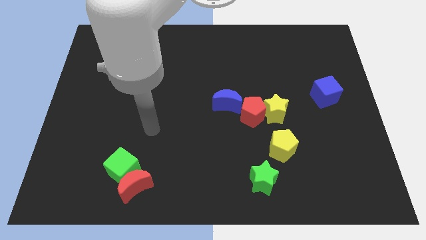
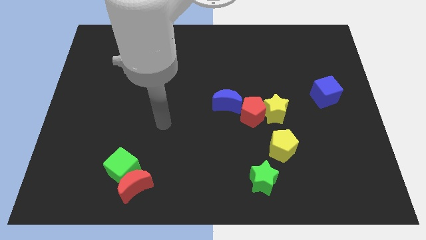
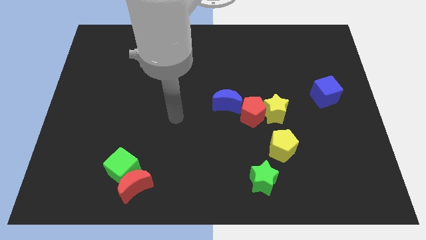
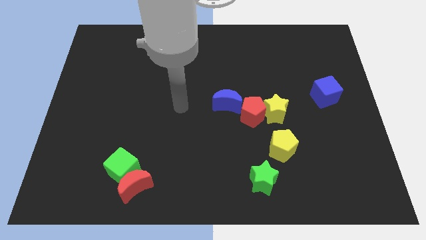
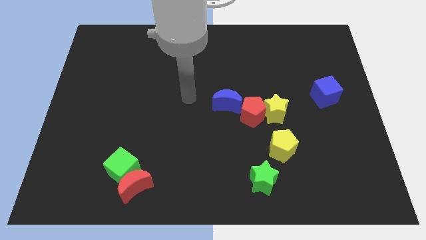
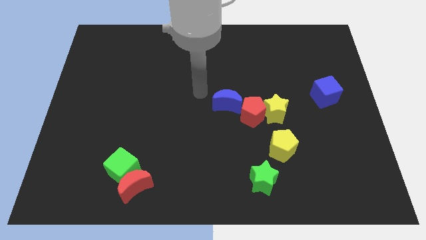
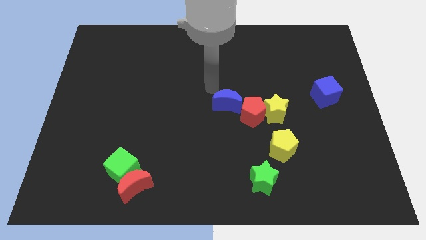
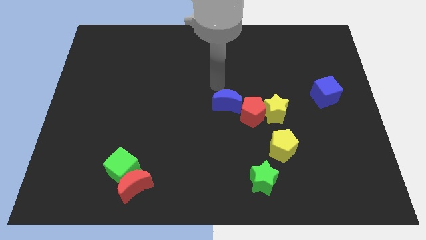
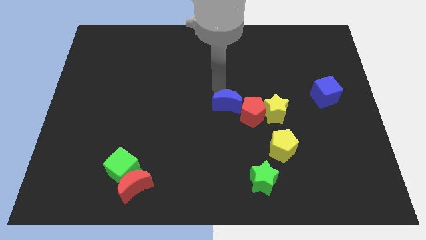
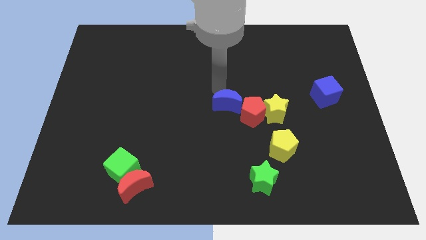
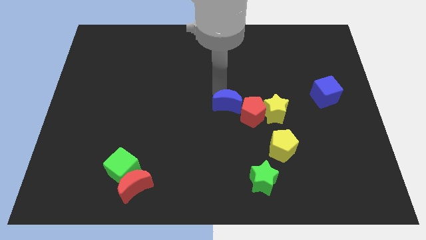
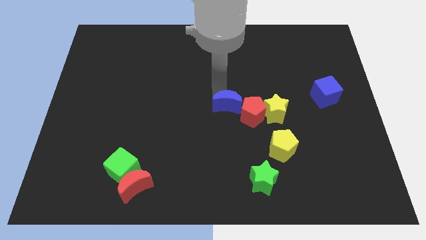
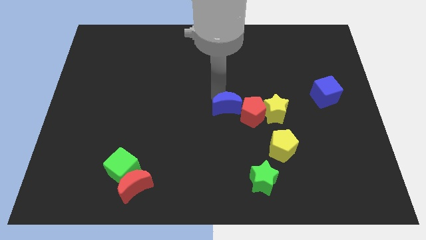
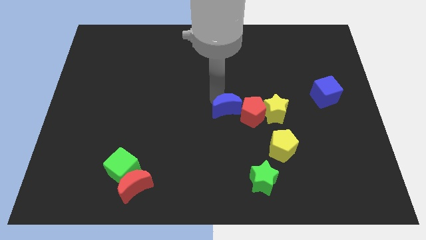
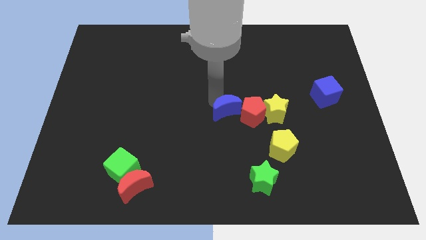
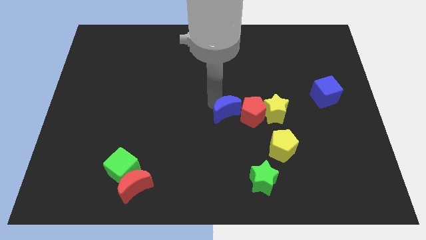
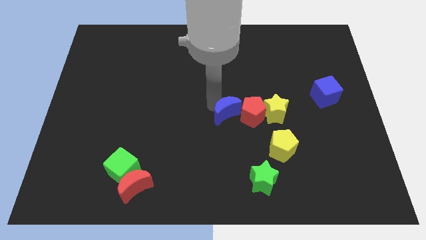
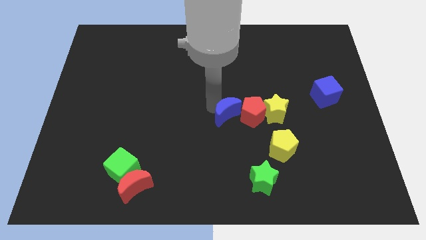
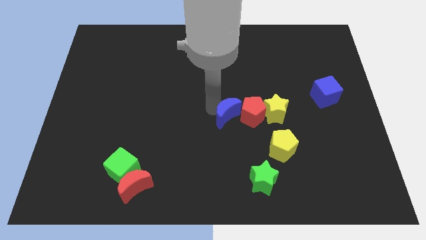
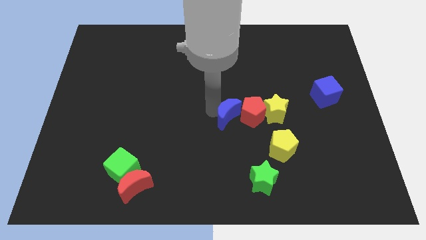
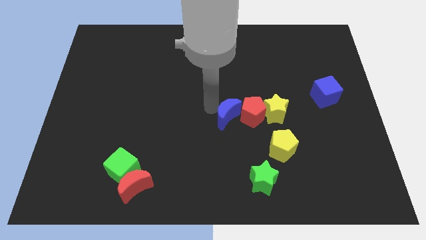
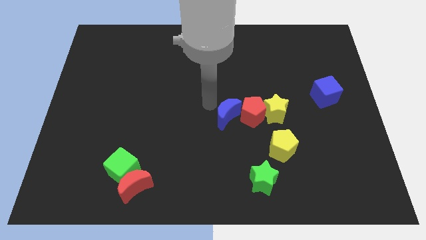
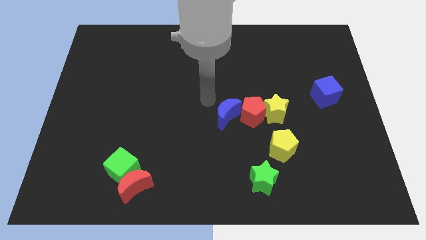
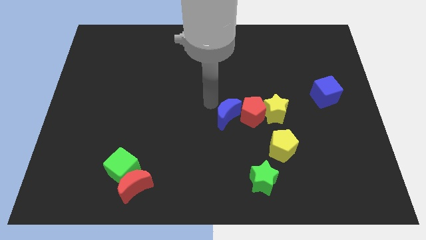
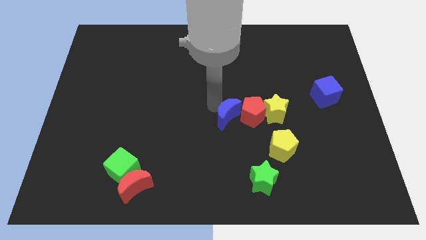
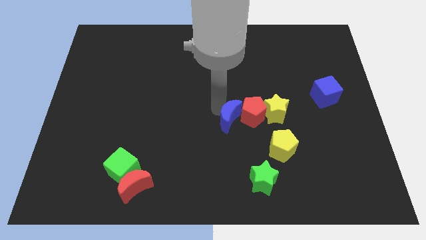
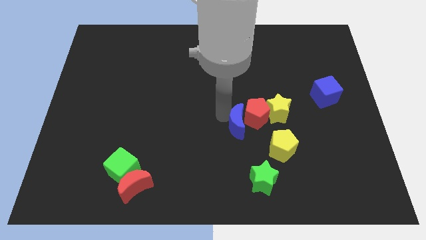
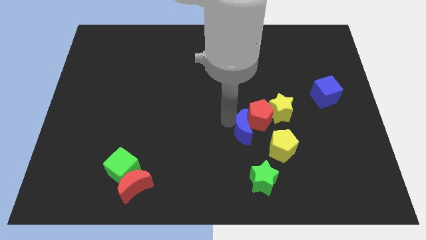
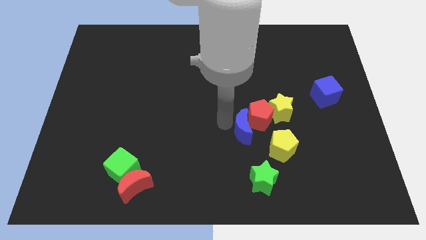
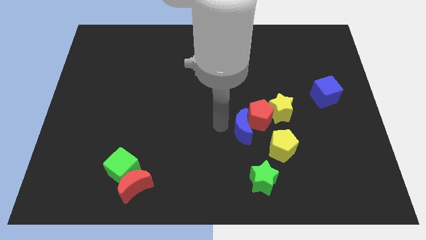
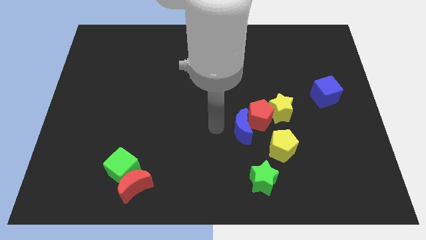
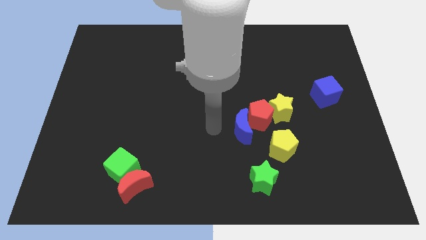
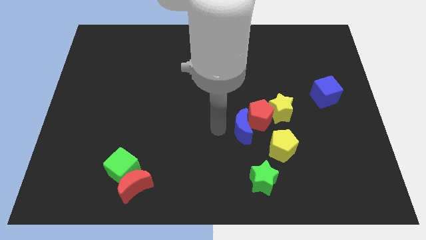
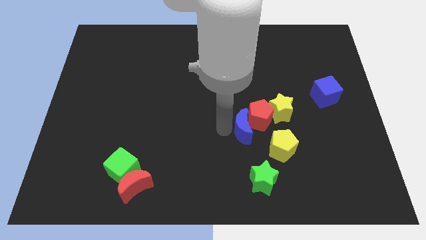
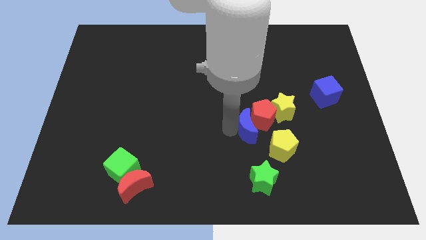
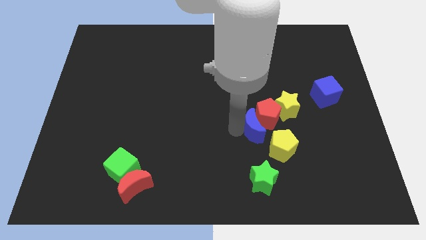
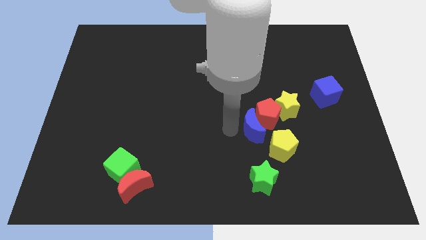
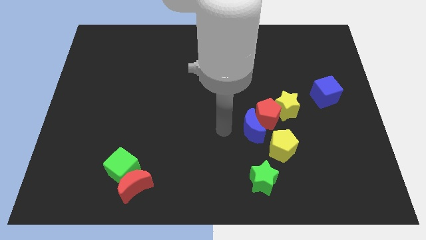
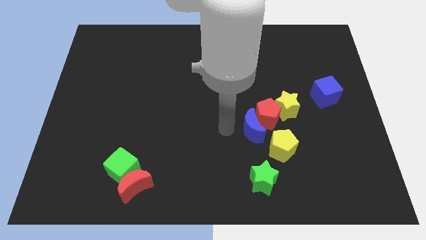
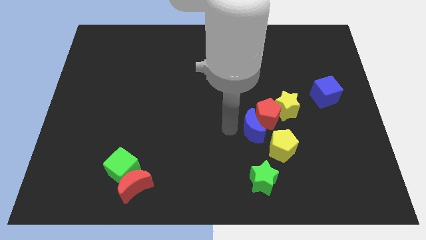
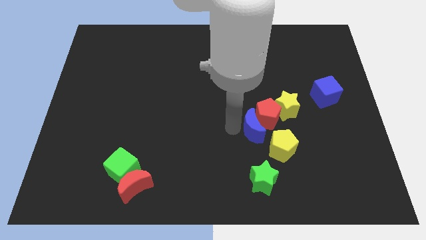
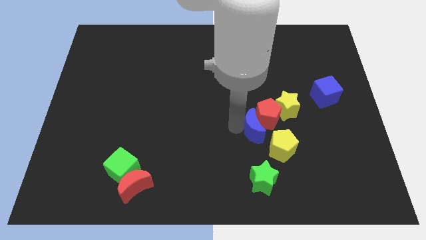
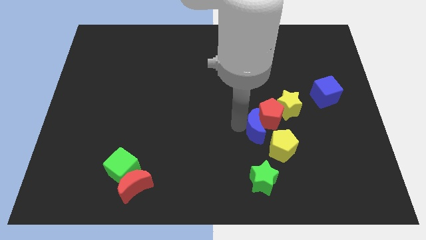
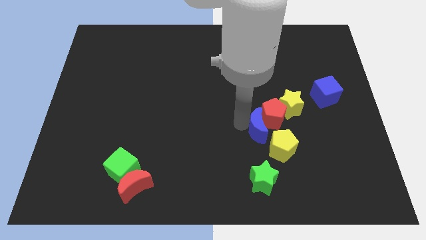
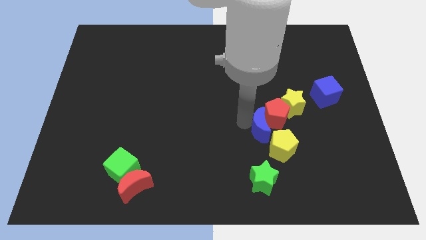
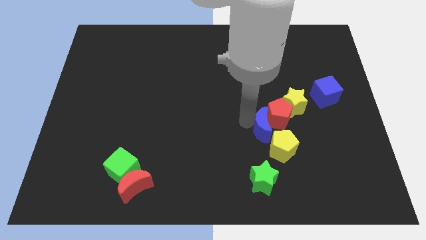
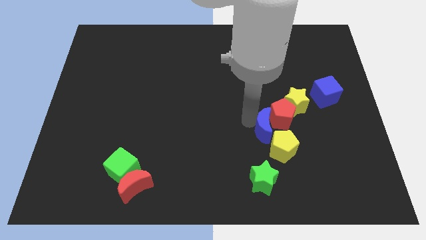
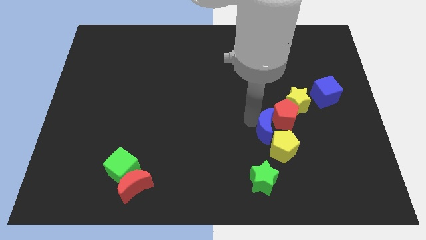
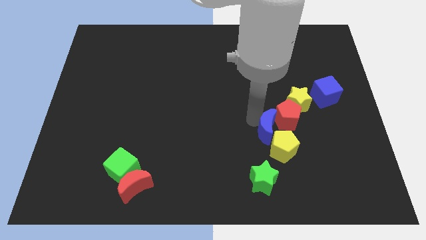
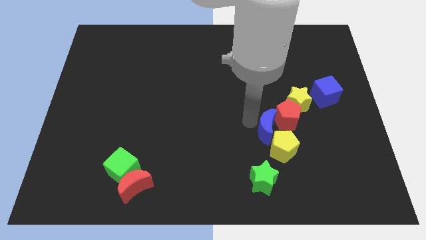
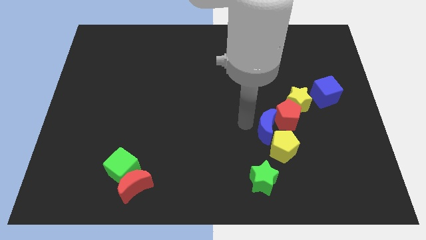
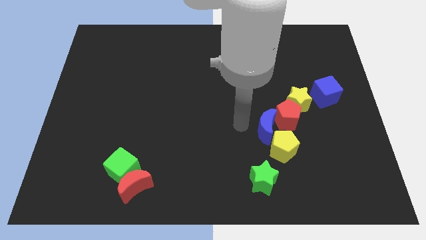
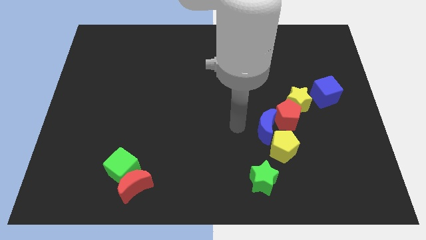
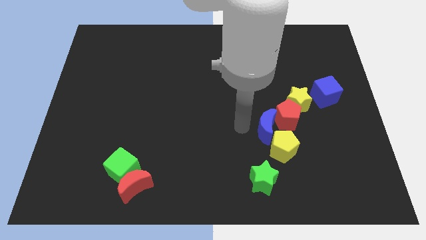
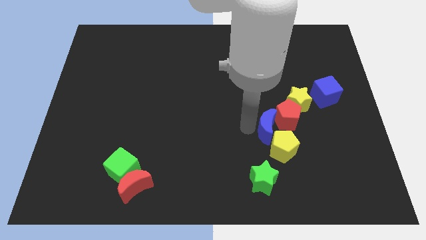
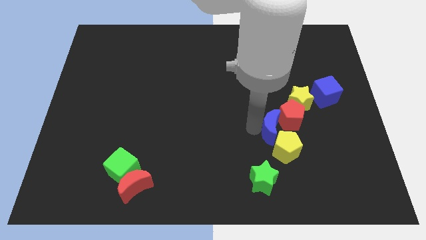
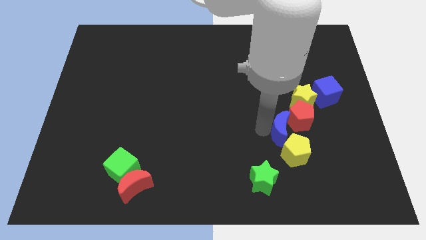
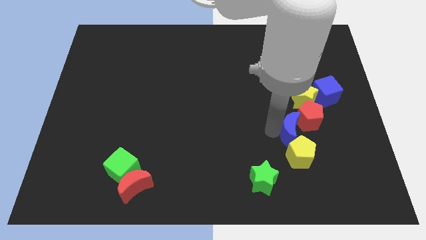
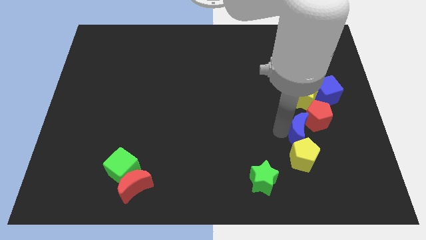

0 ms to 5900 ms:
slide the blue moon to the top right side of the yellow pentagon

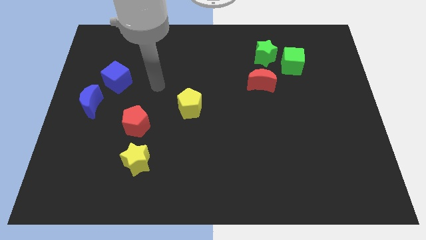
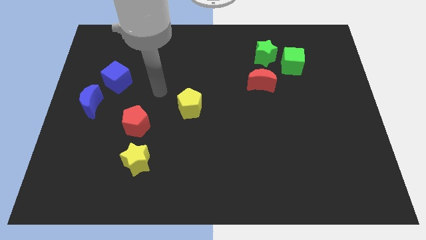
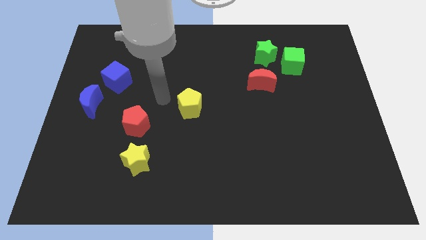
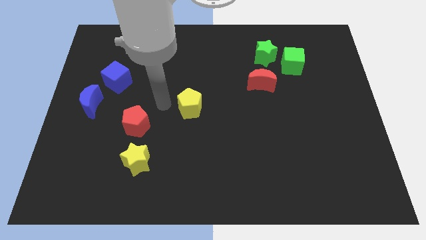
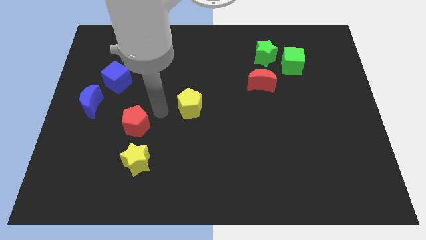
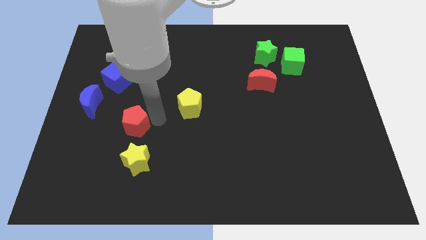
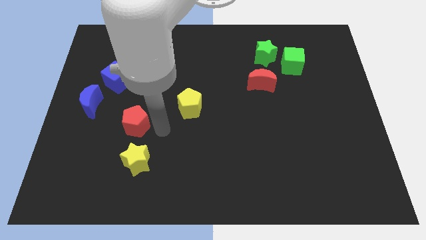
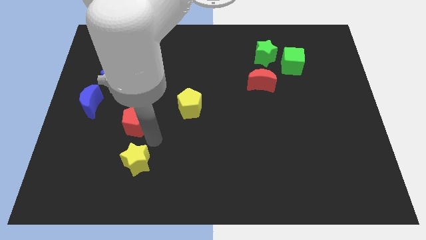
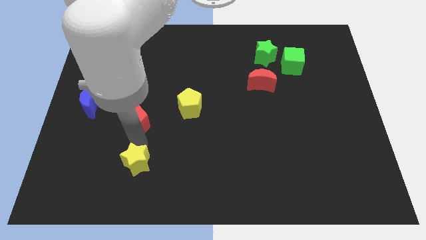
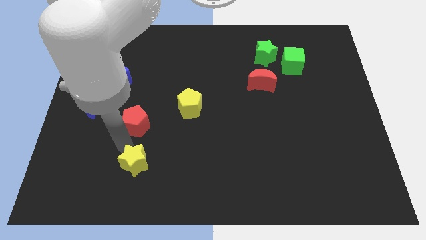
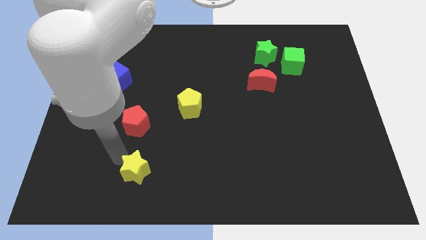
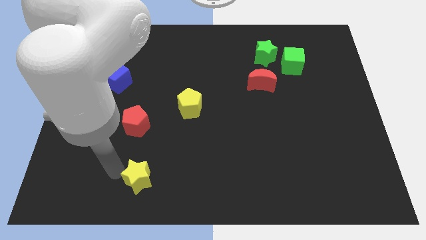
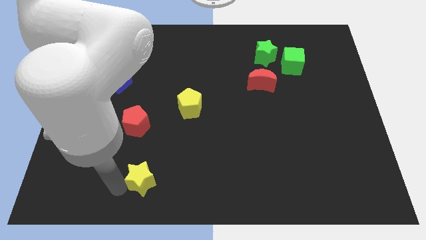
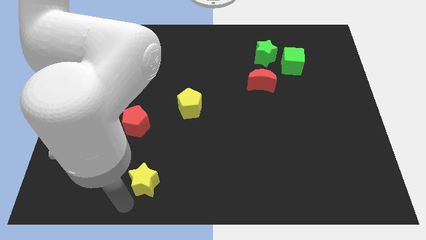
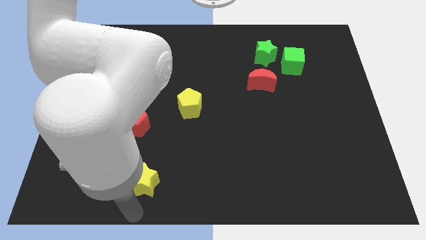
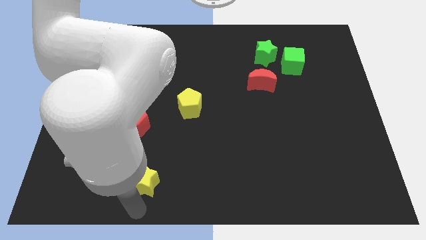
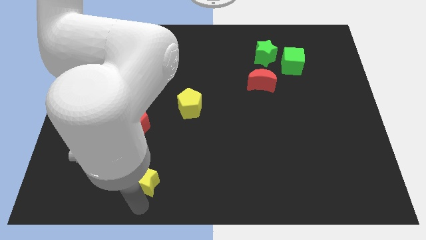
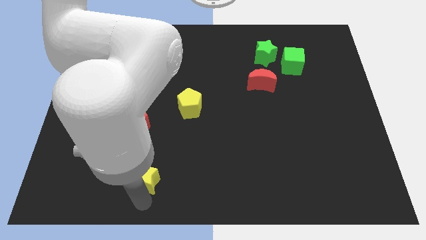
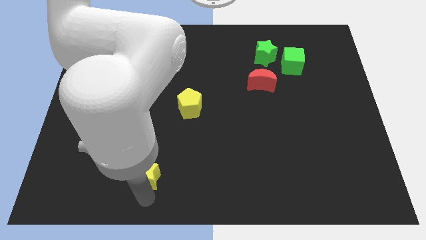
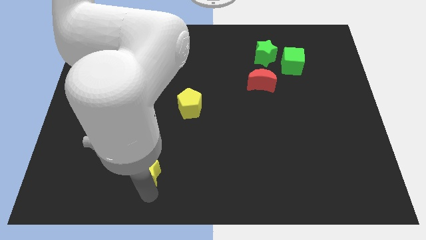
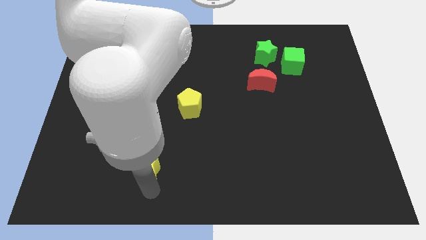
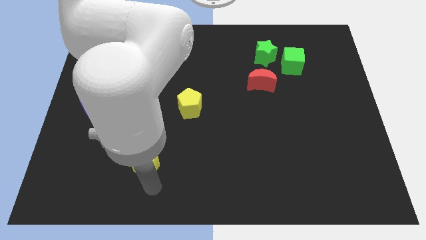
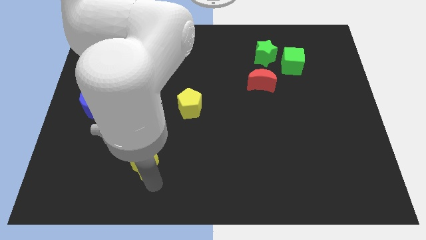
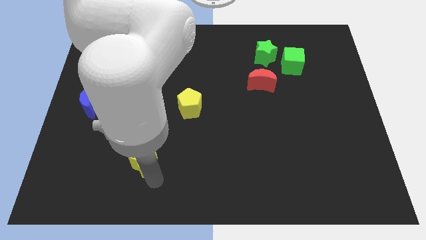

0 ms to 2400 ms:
push the yellow star diagonally down and to the right of the red pentagon

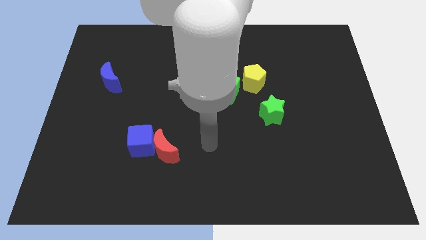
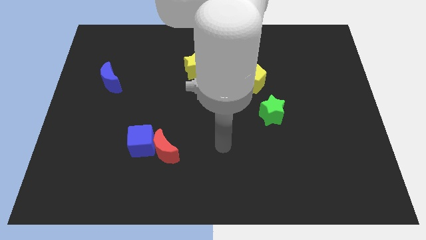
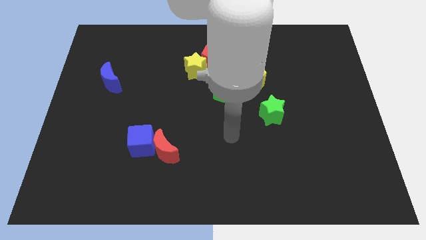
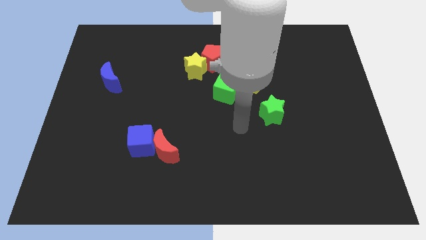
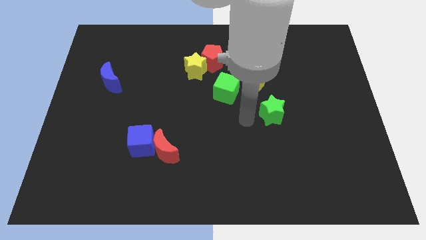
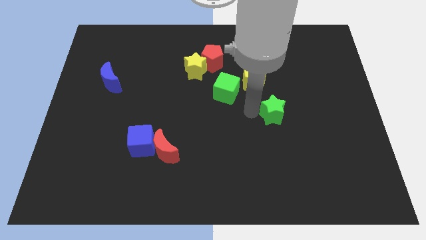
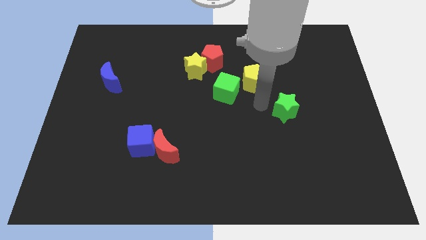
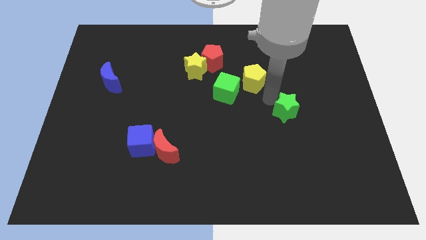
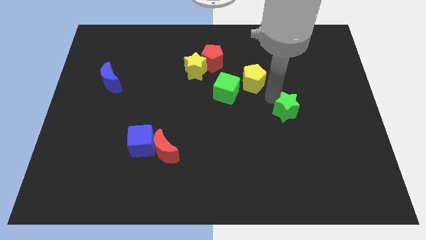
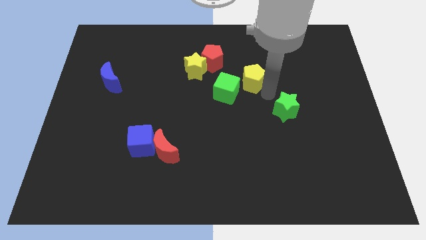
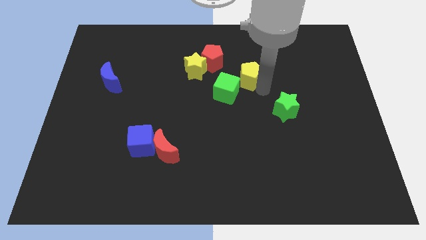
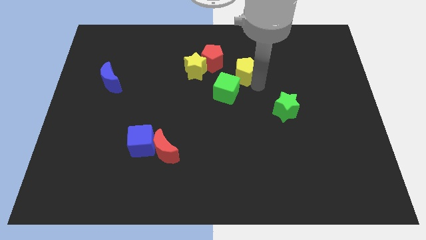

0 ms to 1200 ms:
put the yellow pentagon to the top side of the green cube
